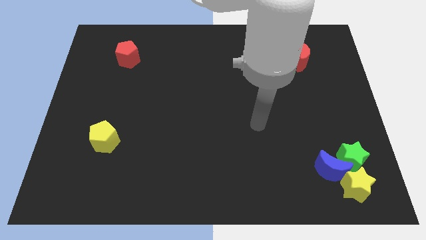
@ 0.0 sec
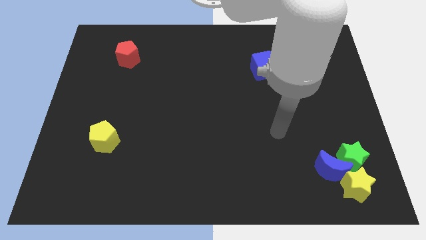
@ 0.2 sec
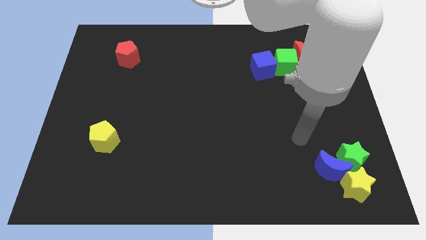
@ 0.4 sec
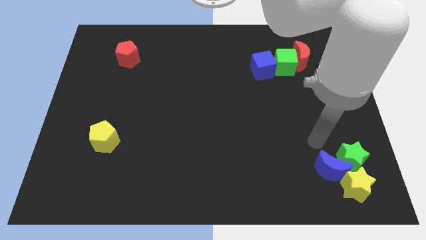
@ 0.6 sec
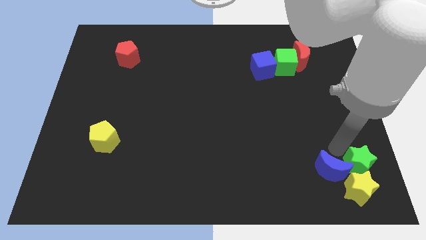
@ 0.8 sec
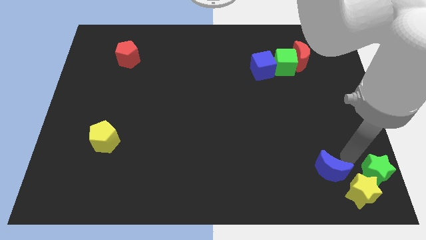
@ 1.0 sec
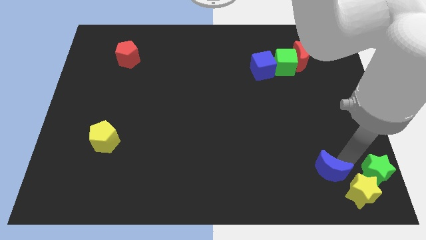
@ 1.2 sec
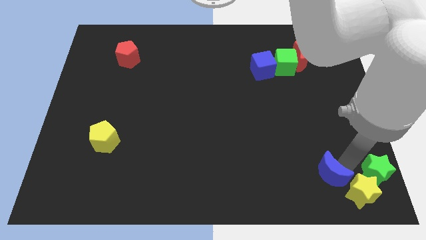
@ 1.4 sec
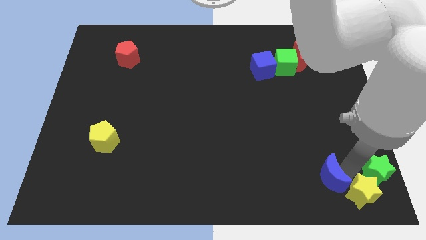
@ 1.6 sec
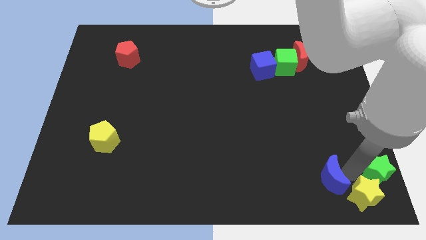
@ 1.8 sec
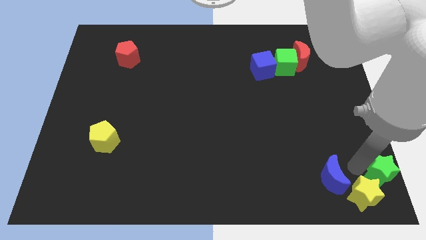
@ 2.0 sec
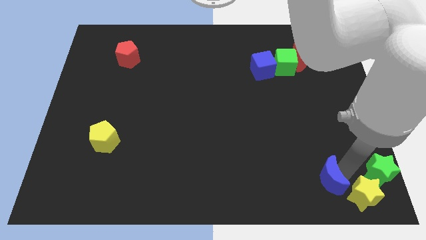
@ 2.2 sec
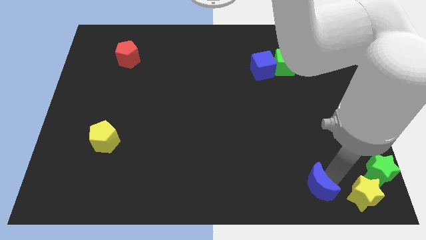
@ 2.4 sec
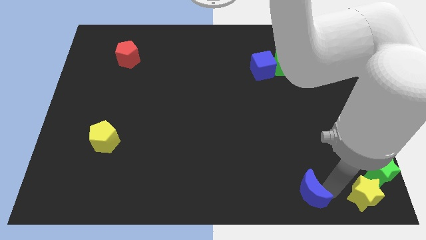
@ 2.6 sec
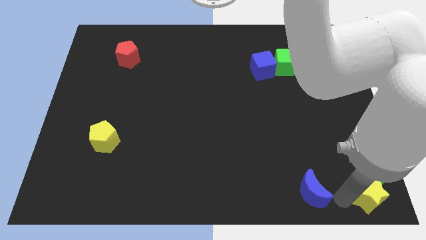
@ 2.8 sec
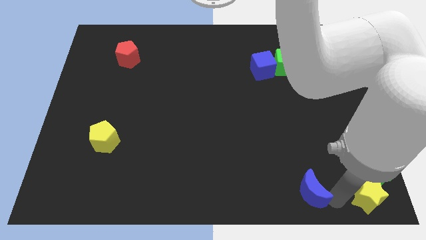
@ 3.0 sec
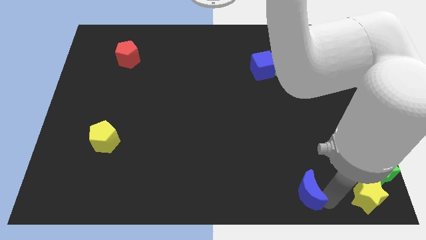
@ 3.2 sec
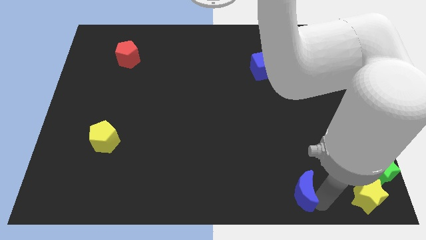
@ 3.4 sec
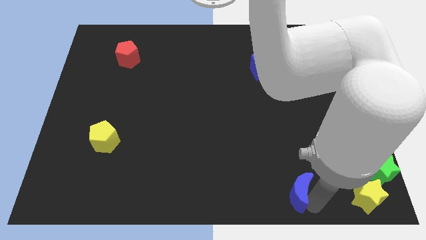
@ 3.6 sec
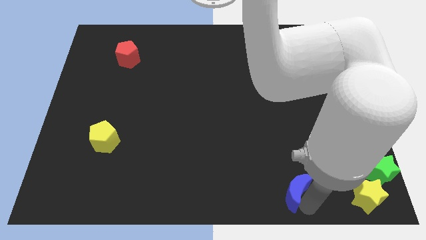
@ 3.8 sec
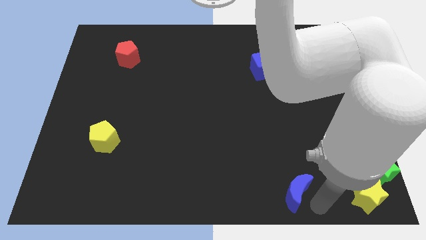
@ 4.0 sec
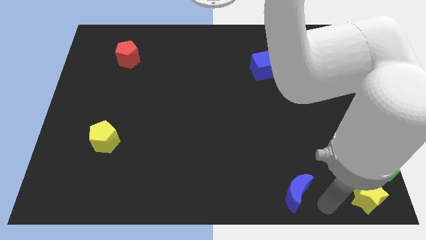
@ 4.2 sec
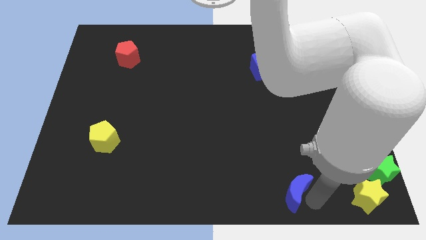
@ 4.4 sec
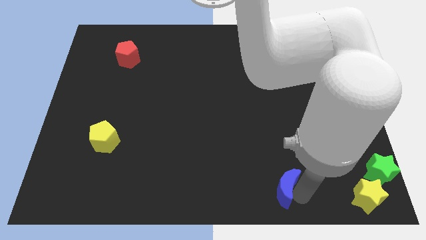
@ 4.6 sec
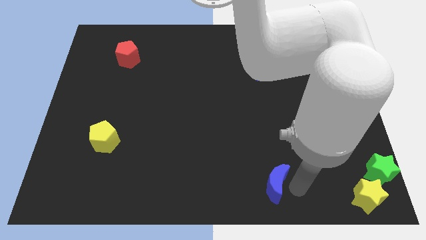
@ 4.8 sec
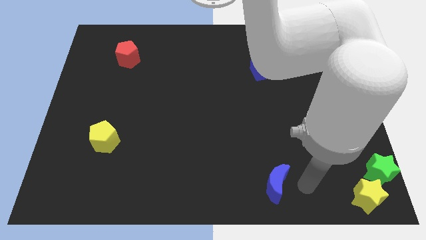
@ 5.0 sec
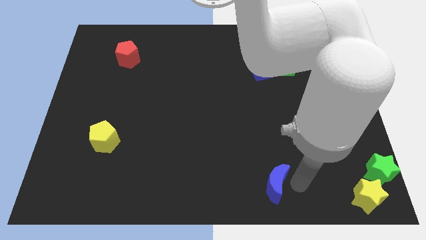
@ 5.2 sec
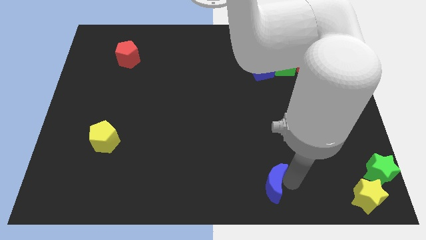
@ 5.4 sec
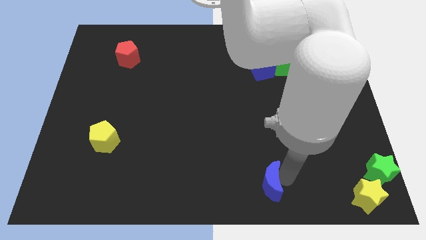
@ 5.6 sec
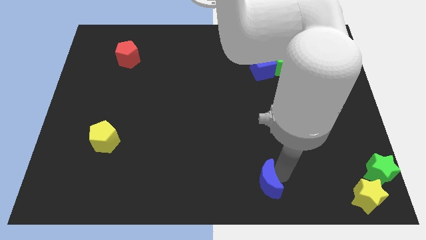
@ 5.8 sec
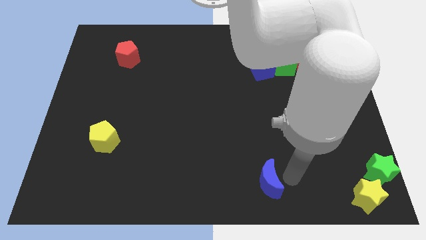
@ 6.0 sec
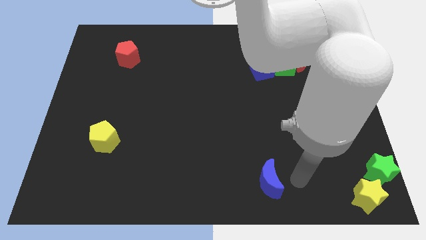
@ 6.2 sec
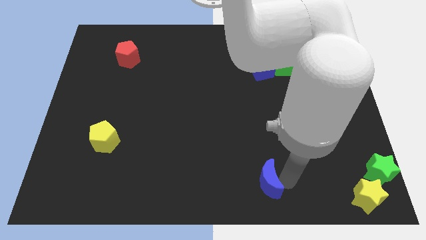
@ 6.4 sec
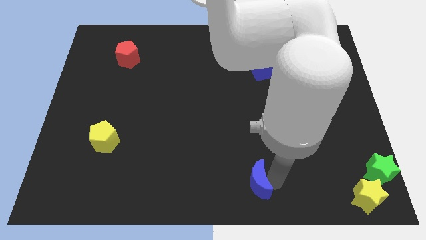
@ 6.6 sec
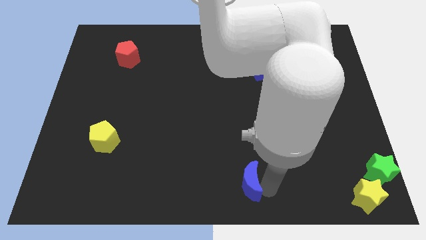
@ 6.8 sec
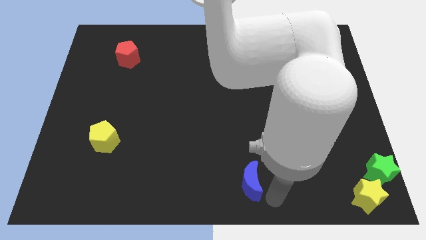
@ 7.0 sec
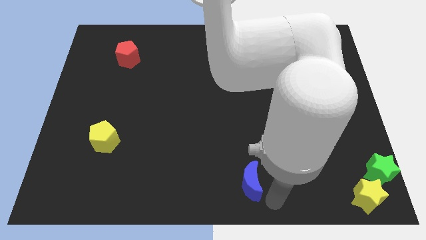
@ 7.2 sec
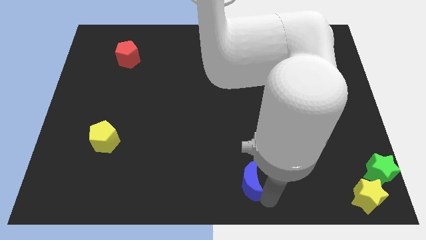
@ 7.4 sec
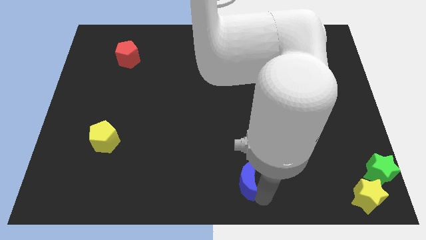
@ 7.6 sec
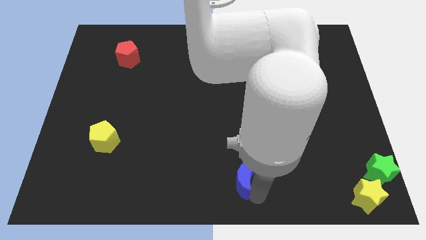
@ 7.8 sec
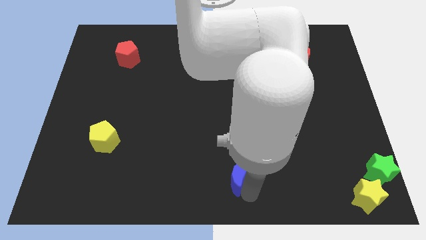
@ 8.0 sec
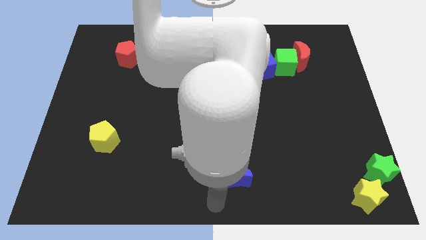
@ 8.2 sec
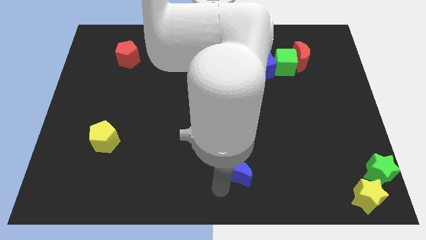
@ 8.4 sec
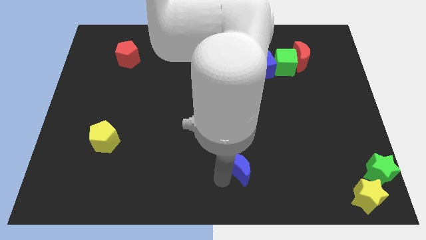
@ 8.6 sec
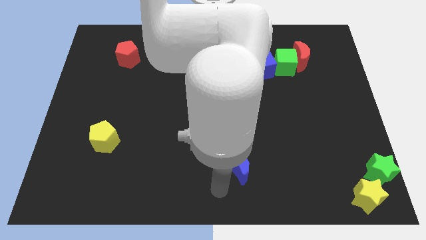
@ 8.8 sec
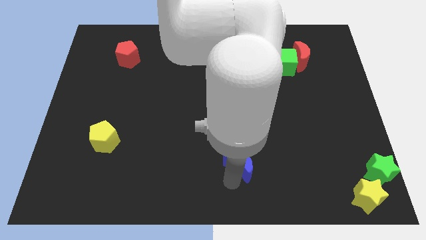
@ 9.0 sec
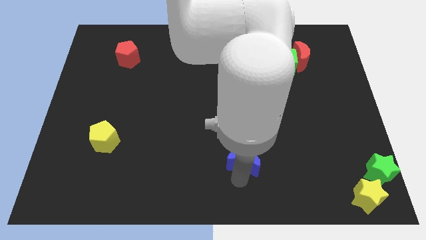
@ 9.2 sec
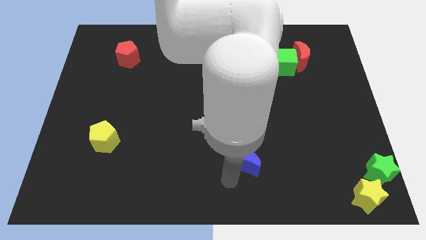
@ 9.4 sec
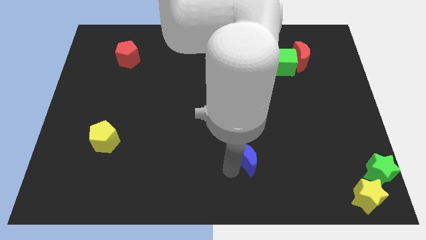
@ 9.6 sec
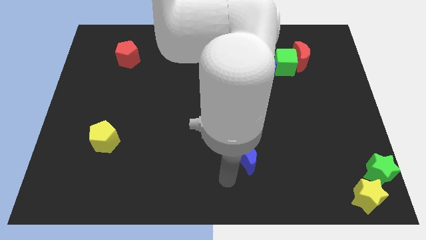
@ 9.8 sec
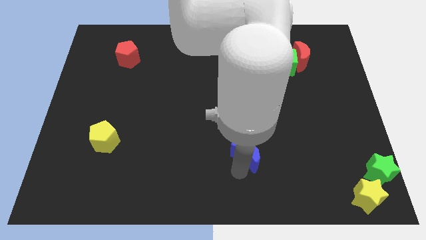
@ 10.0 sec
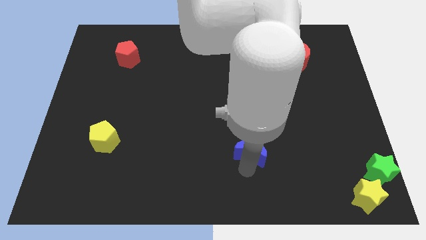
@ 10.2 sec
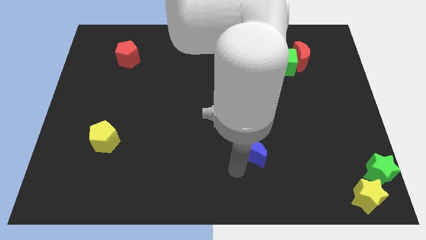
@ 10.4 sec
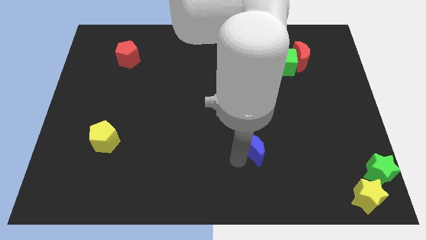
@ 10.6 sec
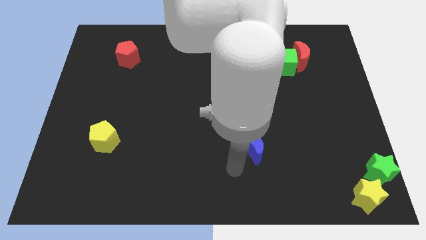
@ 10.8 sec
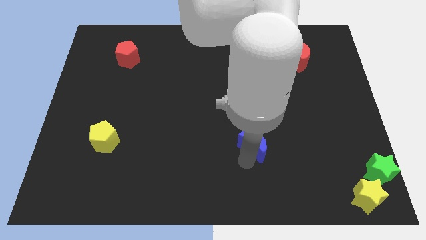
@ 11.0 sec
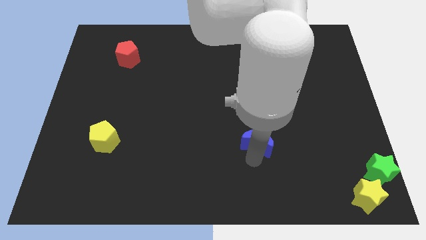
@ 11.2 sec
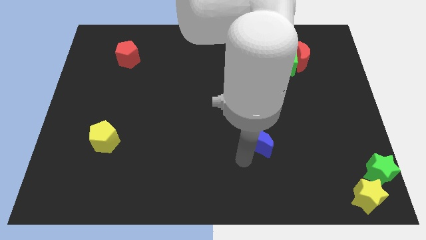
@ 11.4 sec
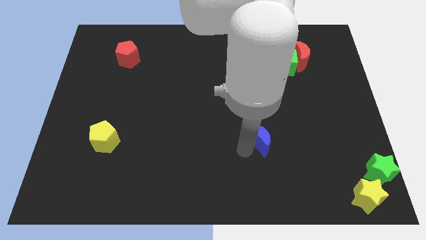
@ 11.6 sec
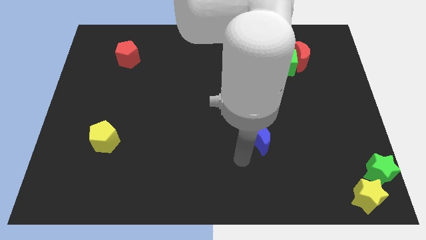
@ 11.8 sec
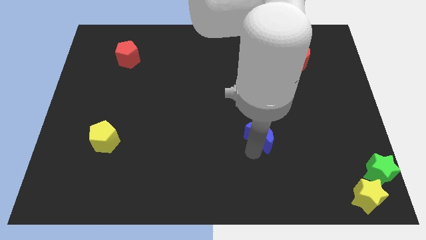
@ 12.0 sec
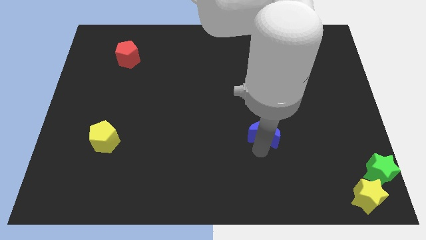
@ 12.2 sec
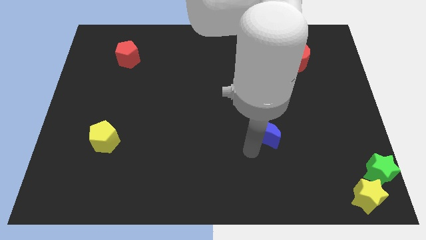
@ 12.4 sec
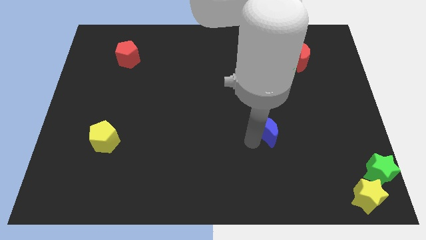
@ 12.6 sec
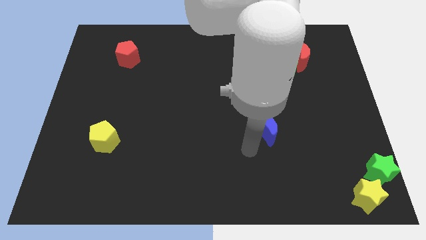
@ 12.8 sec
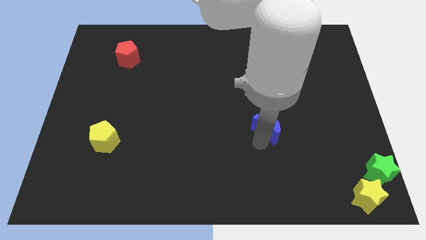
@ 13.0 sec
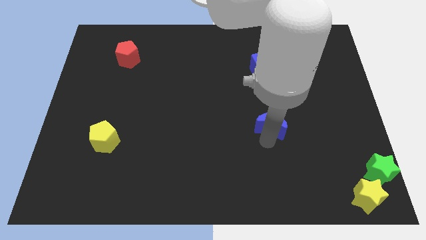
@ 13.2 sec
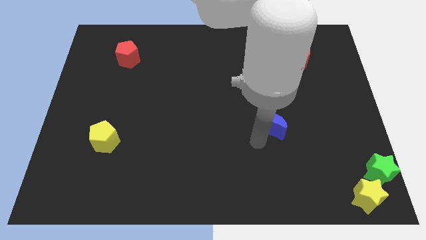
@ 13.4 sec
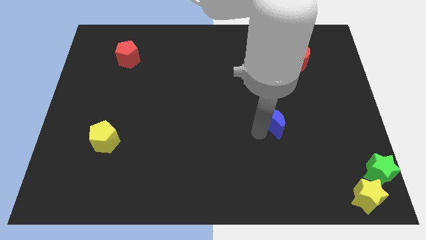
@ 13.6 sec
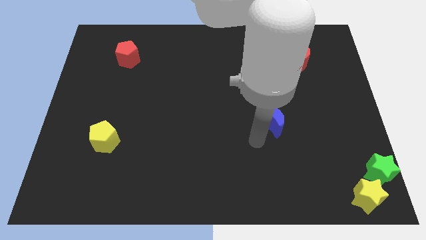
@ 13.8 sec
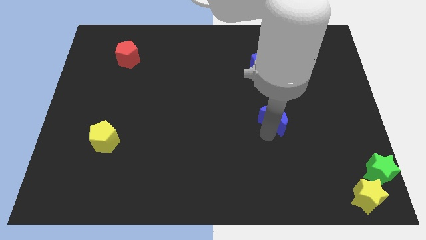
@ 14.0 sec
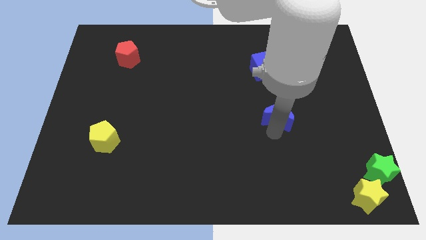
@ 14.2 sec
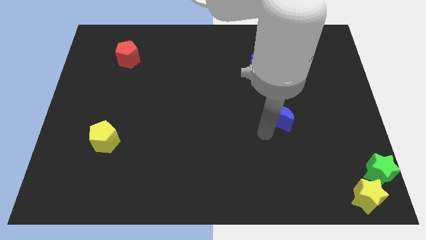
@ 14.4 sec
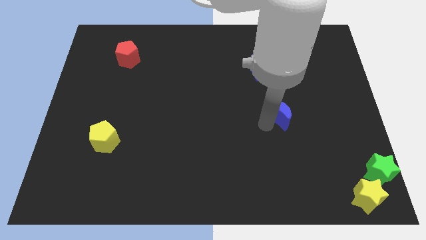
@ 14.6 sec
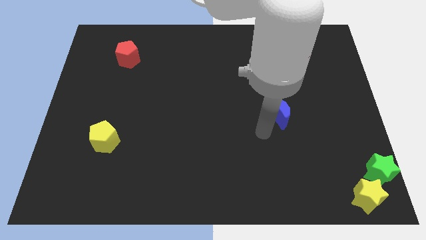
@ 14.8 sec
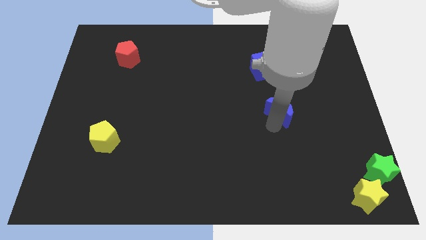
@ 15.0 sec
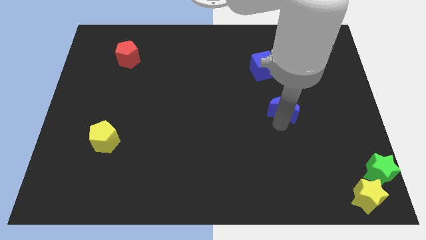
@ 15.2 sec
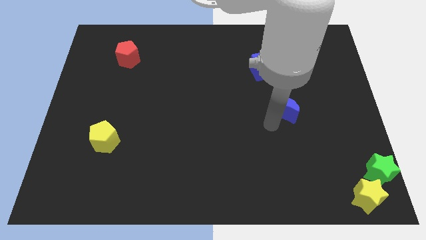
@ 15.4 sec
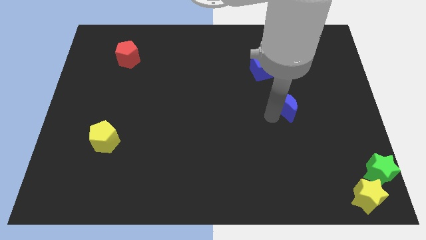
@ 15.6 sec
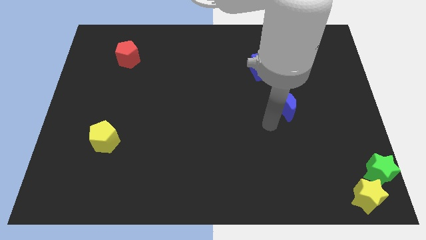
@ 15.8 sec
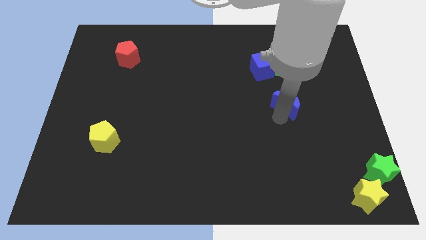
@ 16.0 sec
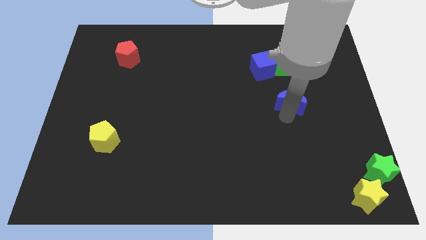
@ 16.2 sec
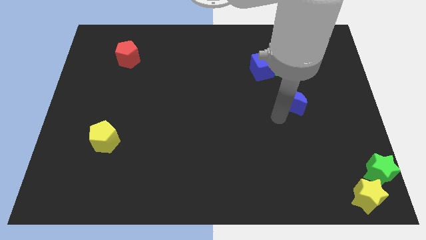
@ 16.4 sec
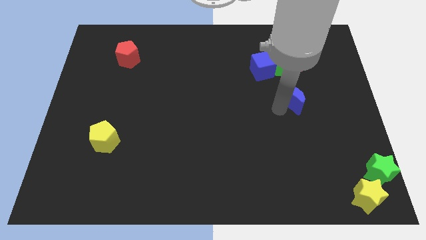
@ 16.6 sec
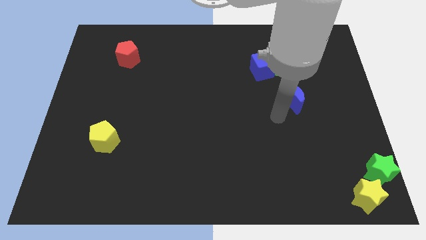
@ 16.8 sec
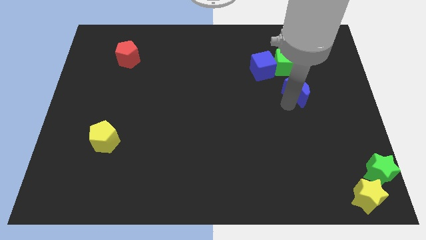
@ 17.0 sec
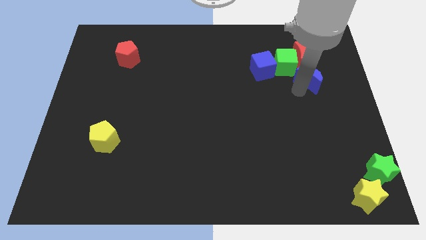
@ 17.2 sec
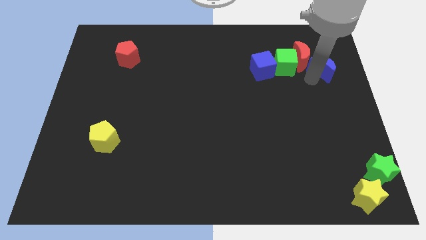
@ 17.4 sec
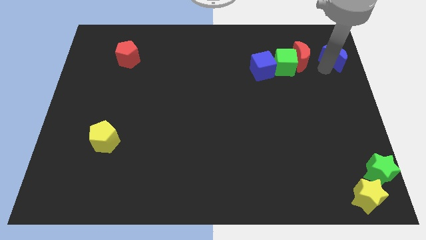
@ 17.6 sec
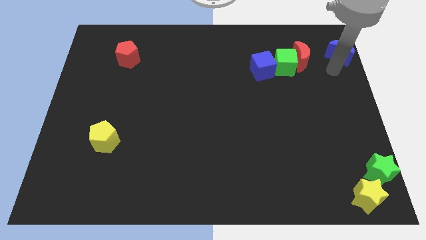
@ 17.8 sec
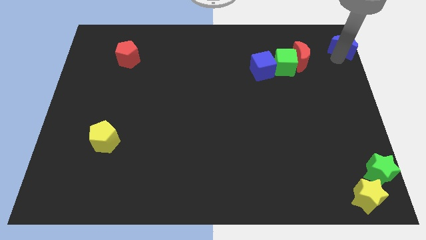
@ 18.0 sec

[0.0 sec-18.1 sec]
move the blue moon to the upper right corner
